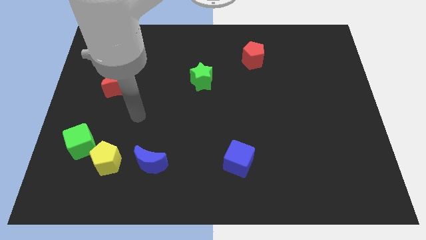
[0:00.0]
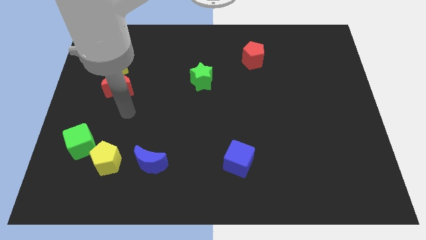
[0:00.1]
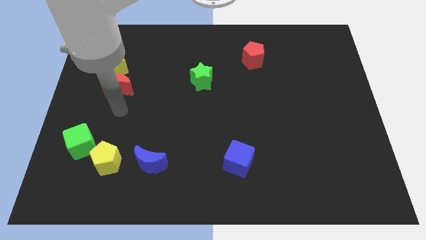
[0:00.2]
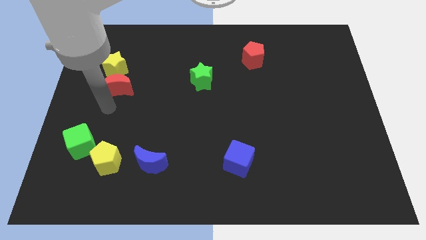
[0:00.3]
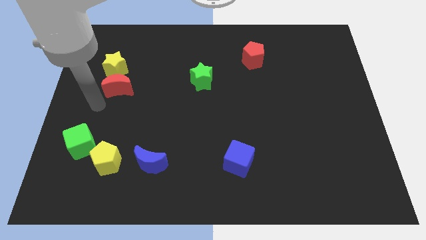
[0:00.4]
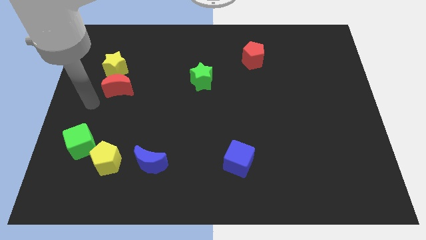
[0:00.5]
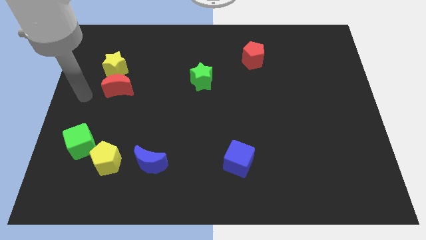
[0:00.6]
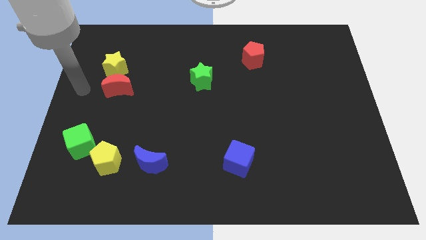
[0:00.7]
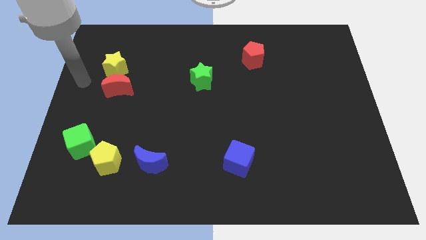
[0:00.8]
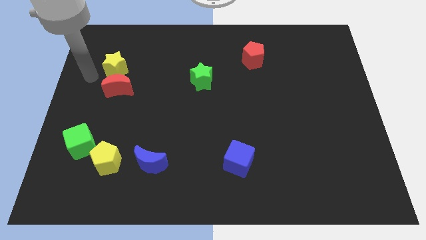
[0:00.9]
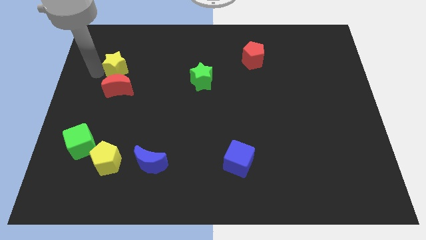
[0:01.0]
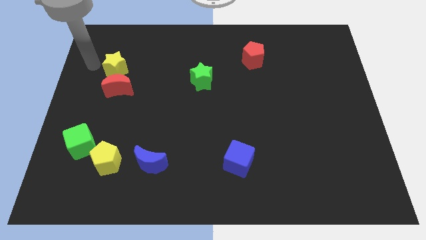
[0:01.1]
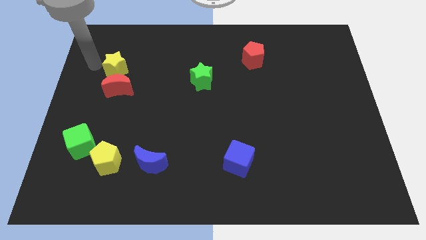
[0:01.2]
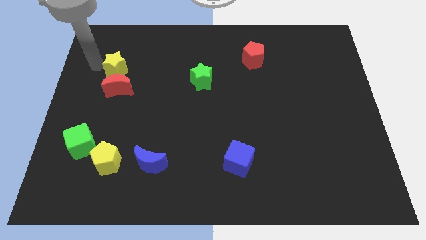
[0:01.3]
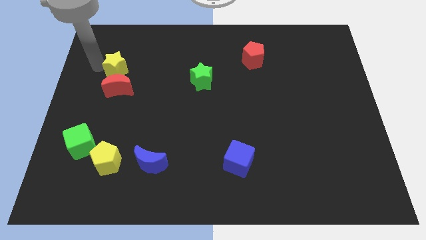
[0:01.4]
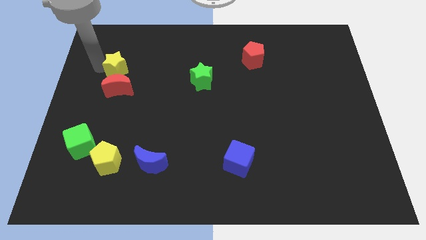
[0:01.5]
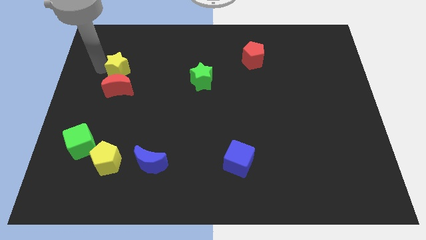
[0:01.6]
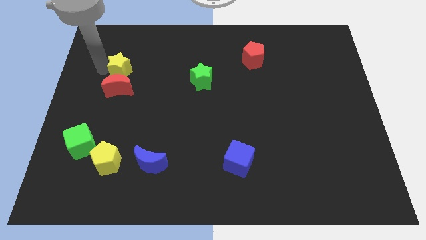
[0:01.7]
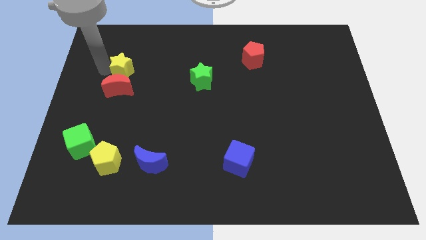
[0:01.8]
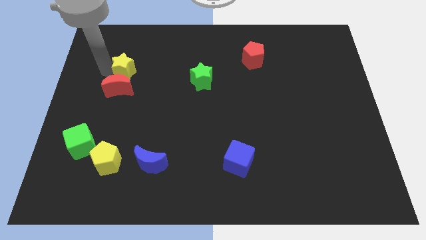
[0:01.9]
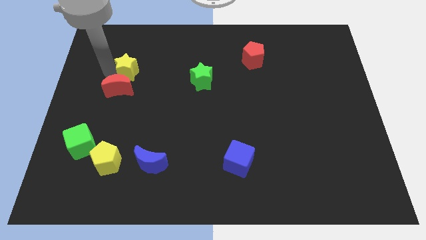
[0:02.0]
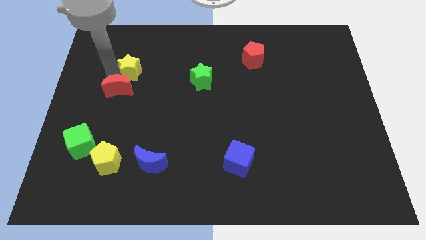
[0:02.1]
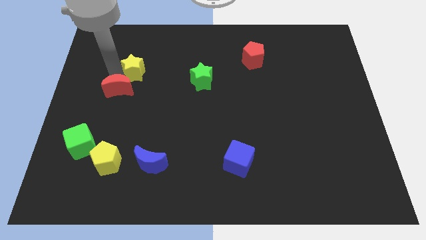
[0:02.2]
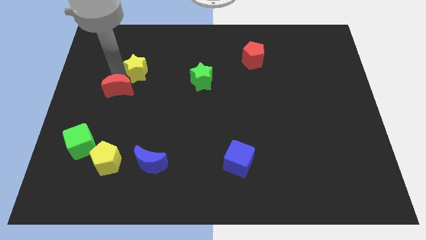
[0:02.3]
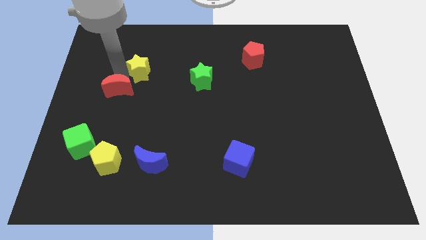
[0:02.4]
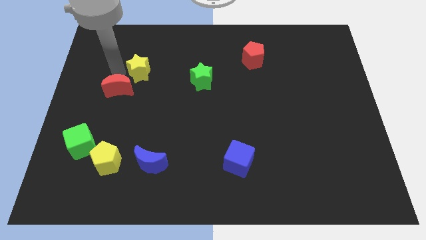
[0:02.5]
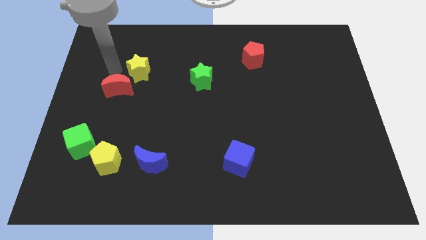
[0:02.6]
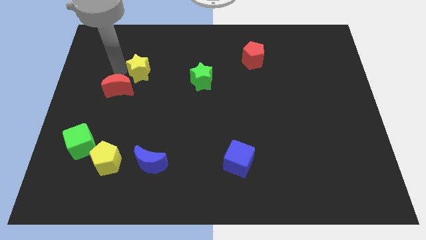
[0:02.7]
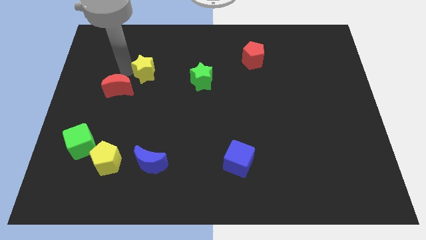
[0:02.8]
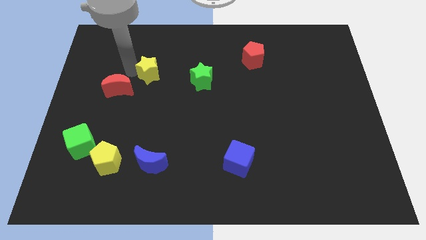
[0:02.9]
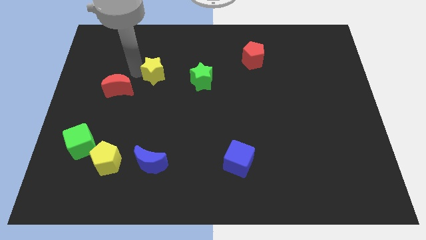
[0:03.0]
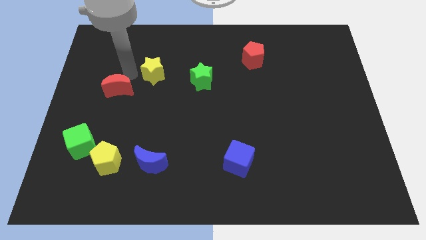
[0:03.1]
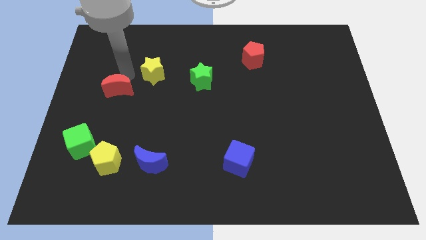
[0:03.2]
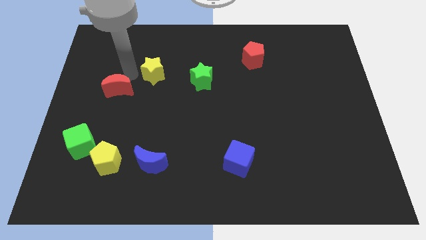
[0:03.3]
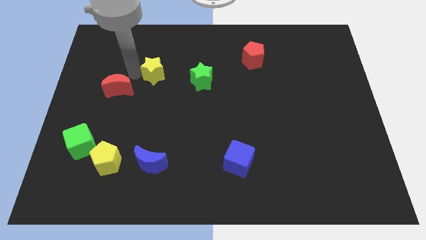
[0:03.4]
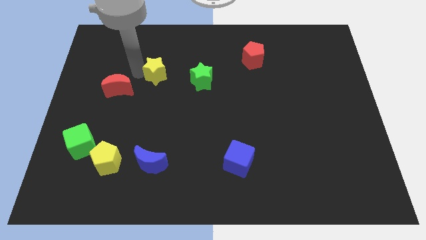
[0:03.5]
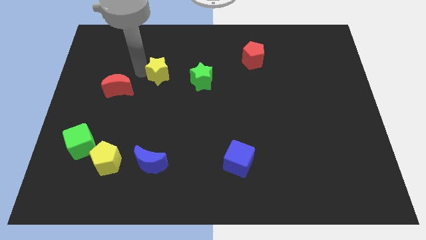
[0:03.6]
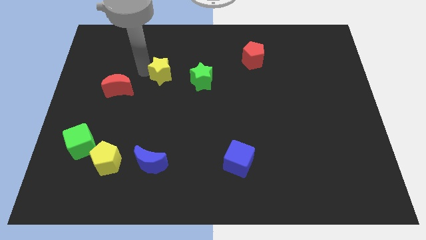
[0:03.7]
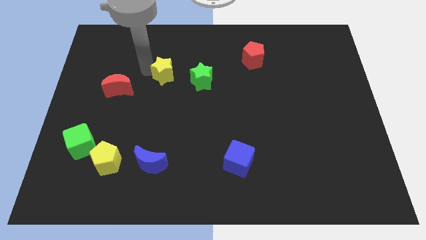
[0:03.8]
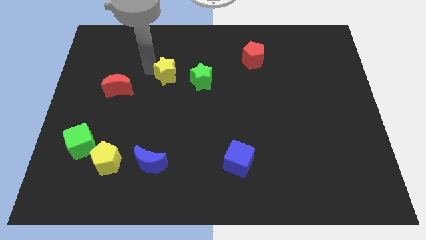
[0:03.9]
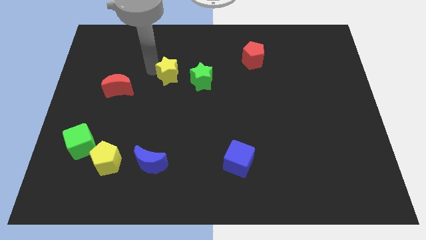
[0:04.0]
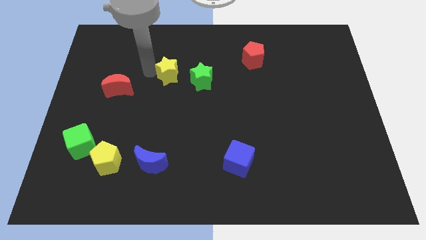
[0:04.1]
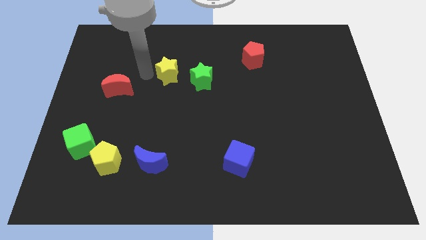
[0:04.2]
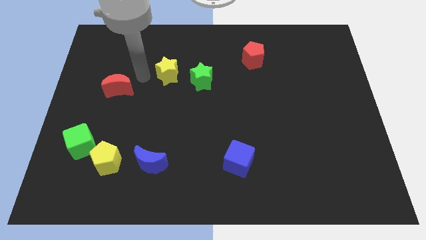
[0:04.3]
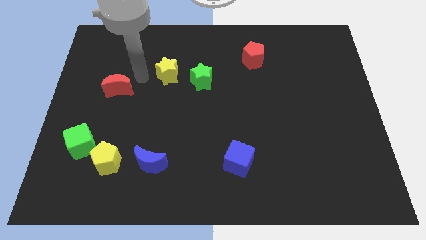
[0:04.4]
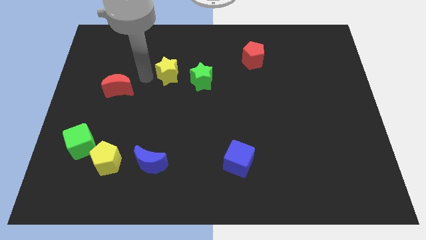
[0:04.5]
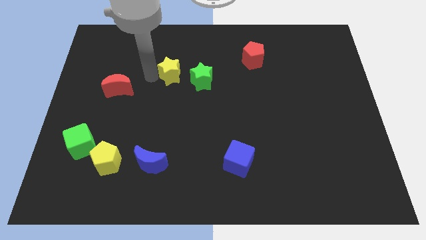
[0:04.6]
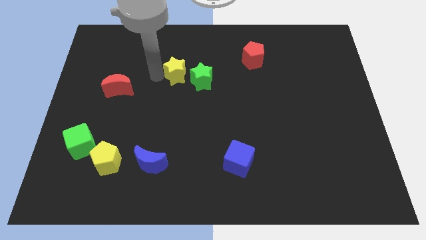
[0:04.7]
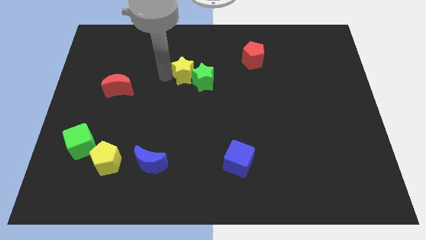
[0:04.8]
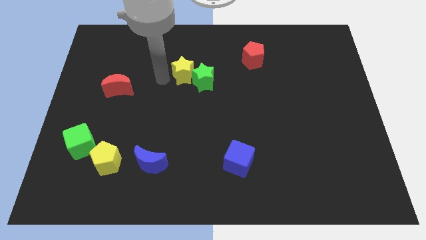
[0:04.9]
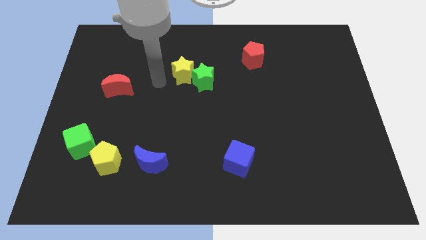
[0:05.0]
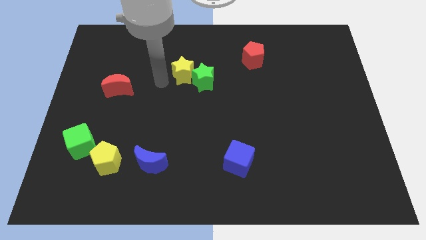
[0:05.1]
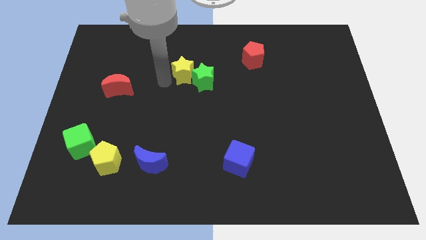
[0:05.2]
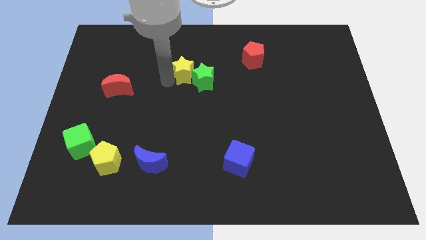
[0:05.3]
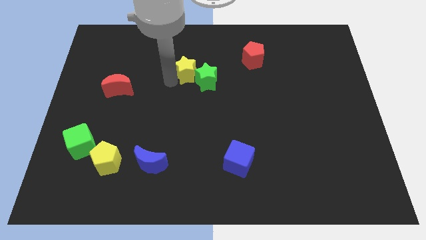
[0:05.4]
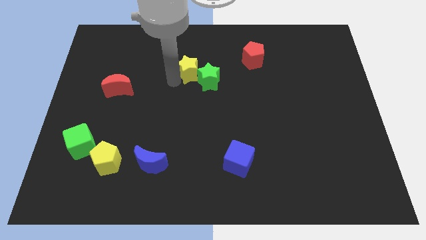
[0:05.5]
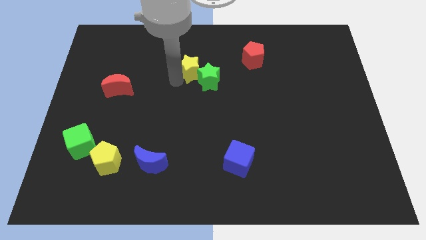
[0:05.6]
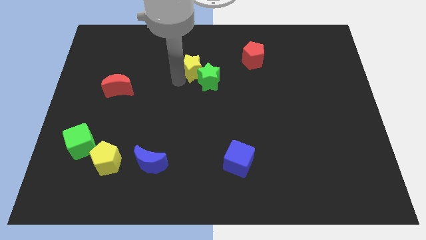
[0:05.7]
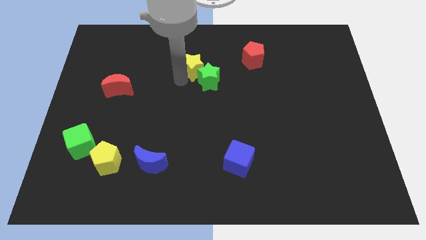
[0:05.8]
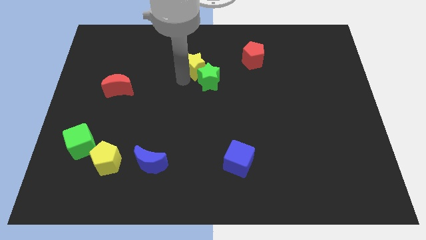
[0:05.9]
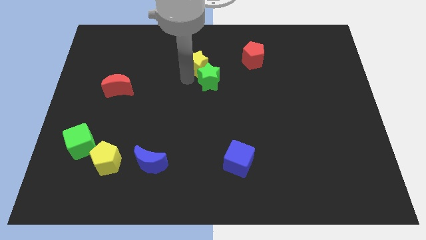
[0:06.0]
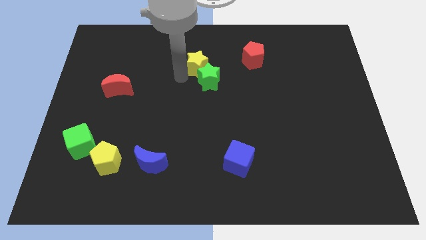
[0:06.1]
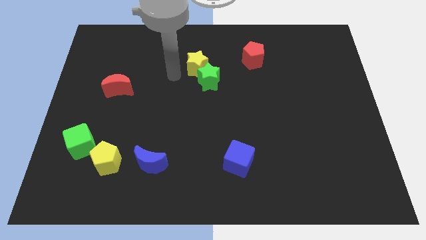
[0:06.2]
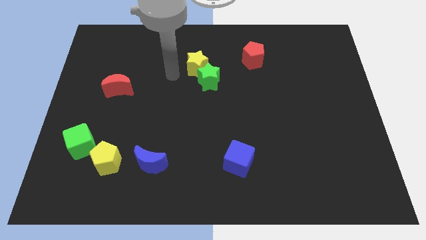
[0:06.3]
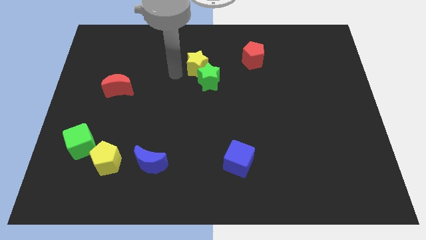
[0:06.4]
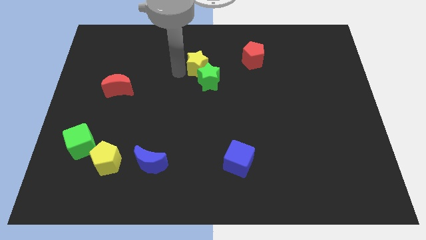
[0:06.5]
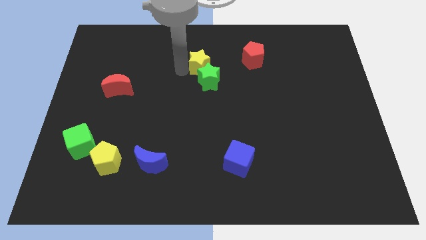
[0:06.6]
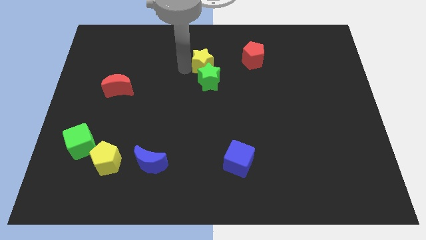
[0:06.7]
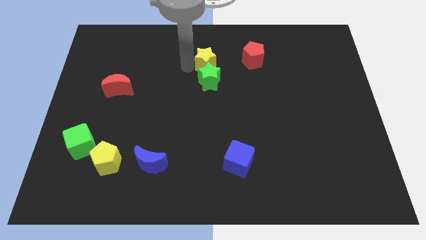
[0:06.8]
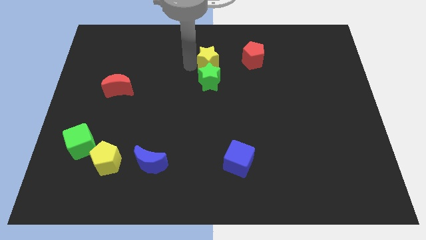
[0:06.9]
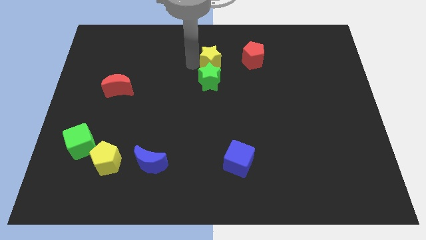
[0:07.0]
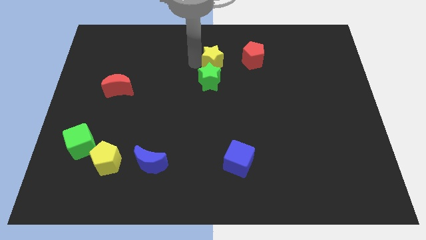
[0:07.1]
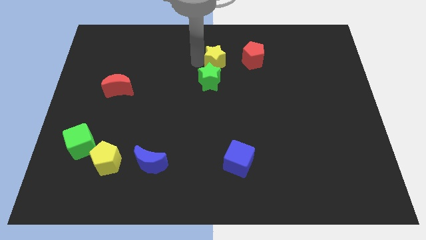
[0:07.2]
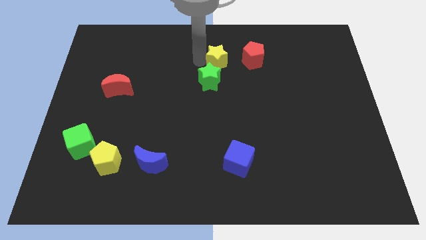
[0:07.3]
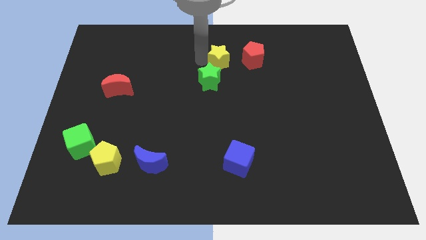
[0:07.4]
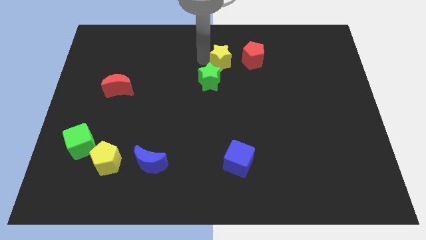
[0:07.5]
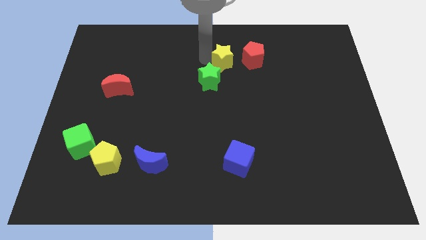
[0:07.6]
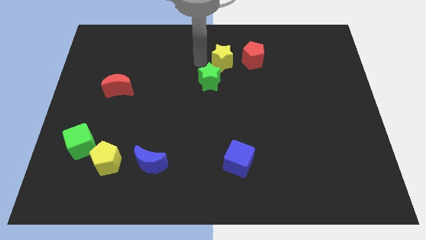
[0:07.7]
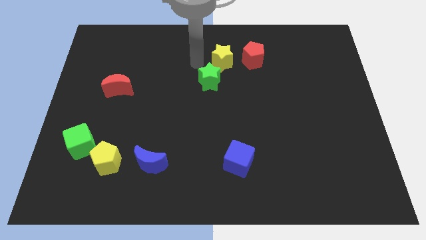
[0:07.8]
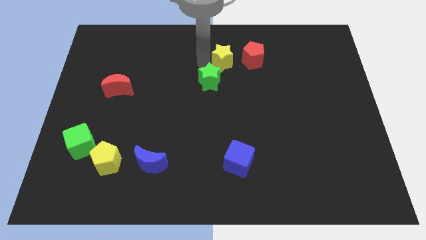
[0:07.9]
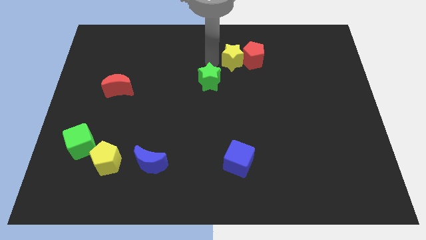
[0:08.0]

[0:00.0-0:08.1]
slide the yellow star towards the red pentagon
